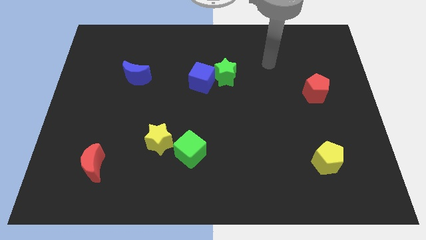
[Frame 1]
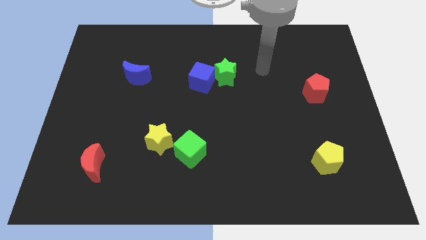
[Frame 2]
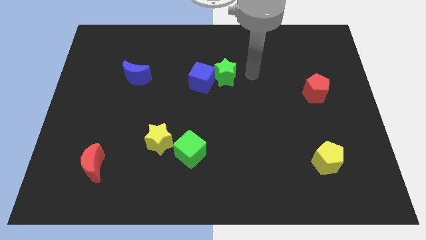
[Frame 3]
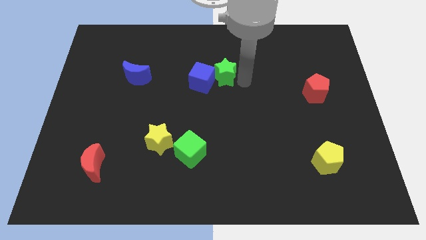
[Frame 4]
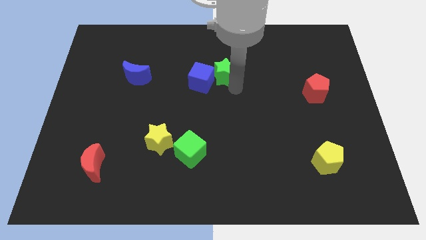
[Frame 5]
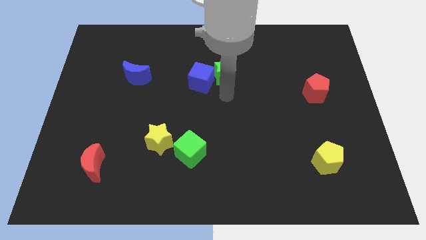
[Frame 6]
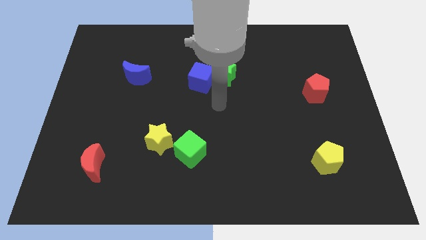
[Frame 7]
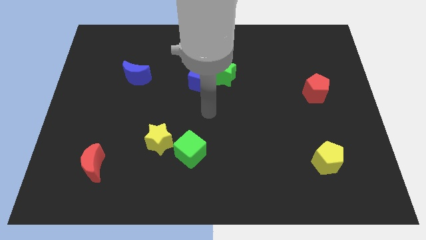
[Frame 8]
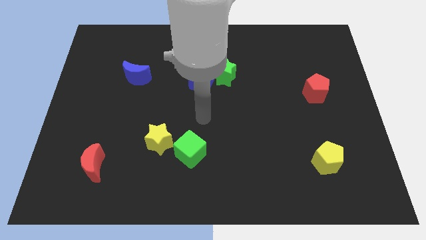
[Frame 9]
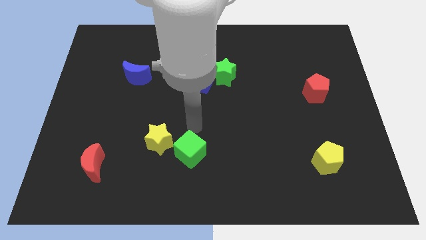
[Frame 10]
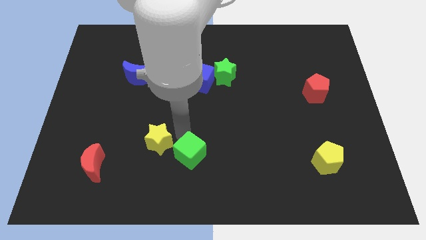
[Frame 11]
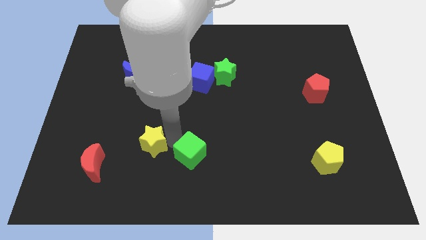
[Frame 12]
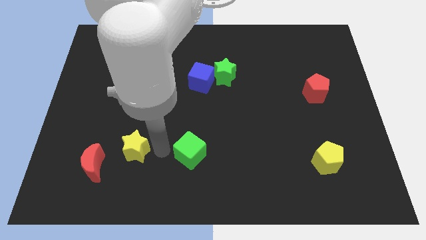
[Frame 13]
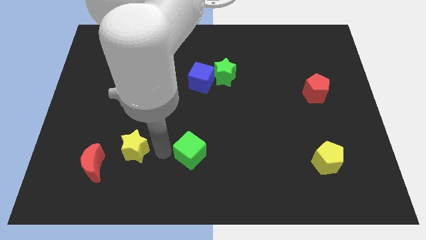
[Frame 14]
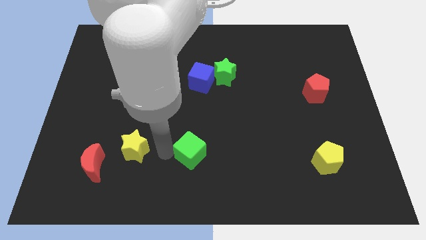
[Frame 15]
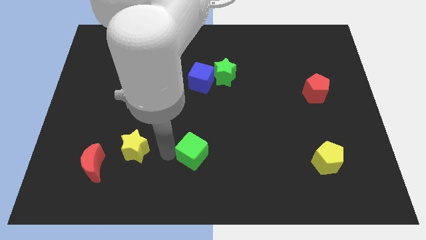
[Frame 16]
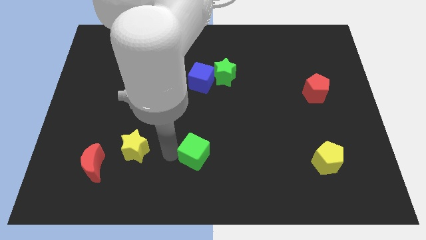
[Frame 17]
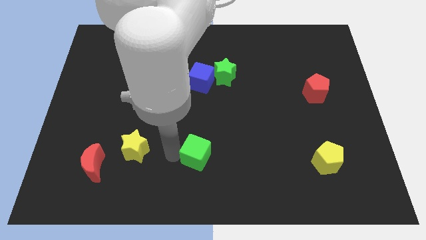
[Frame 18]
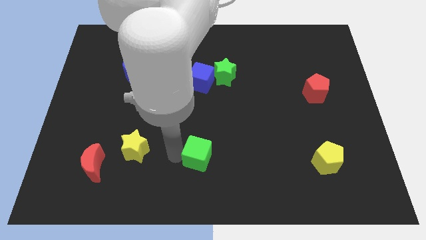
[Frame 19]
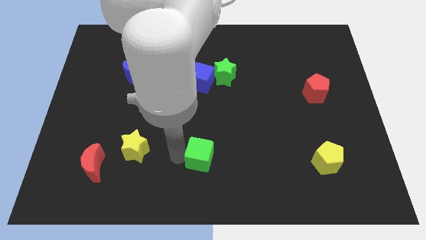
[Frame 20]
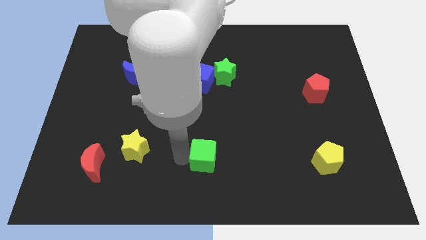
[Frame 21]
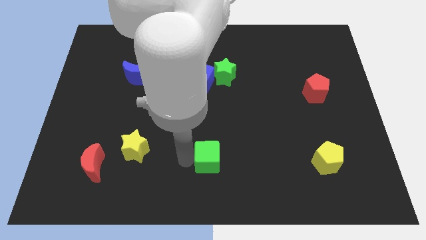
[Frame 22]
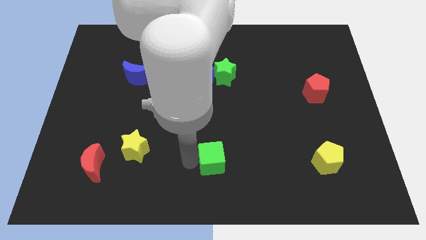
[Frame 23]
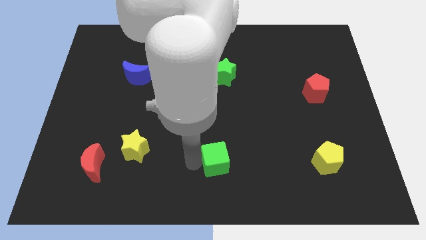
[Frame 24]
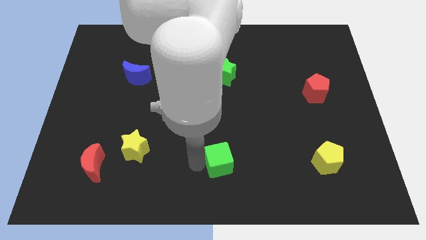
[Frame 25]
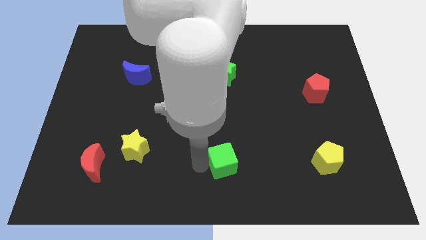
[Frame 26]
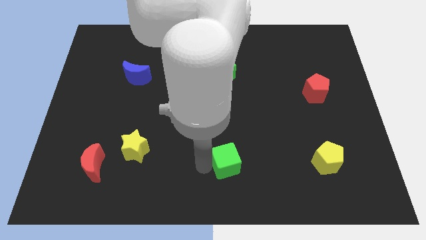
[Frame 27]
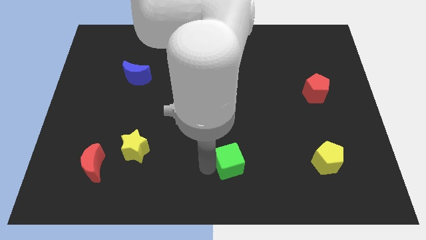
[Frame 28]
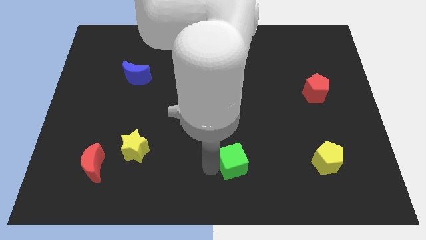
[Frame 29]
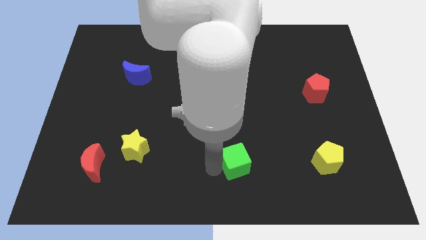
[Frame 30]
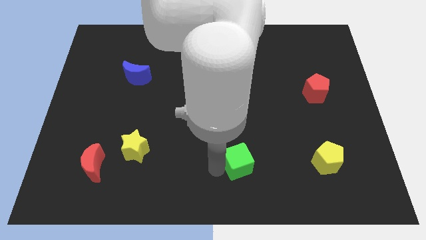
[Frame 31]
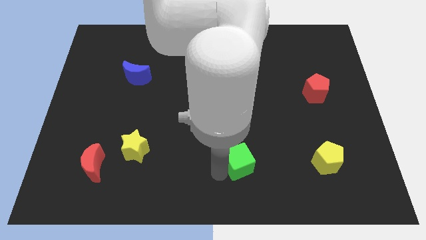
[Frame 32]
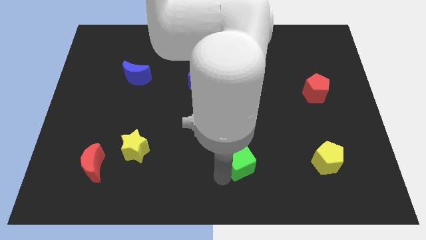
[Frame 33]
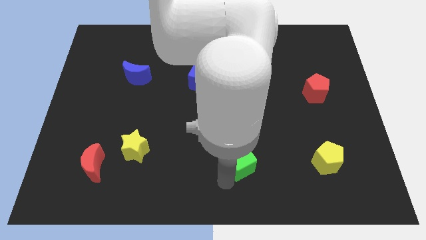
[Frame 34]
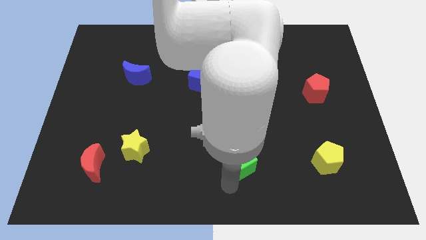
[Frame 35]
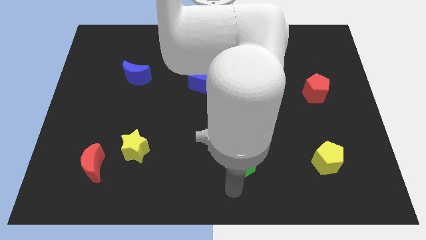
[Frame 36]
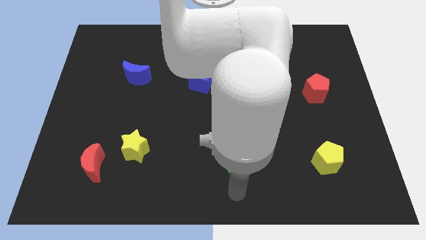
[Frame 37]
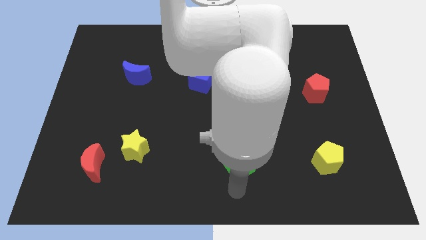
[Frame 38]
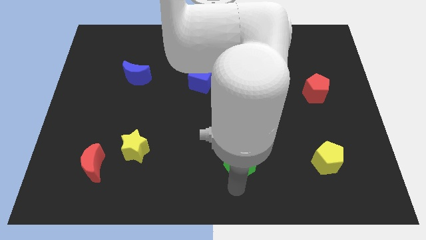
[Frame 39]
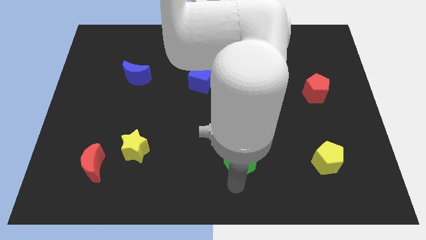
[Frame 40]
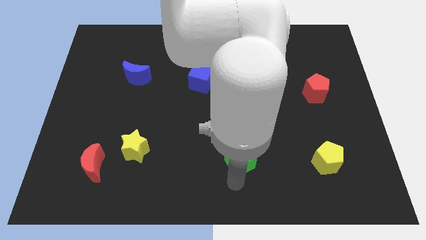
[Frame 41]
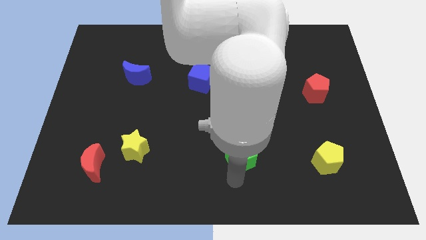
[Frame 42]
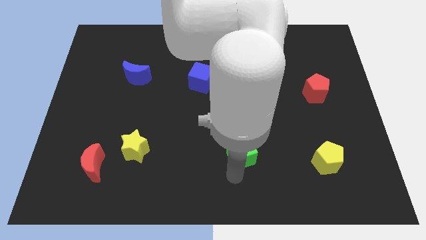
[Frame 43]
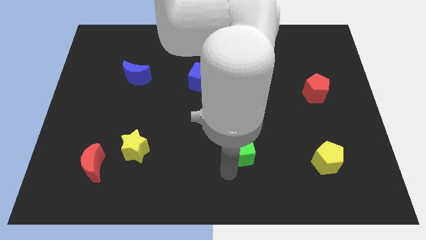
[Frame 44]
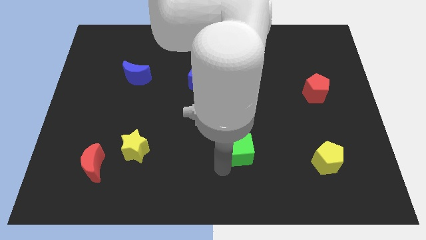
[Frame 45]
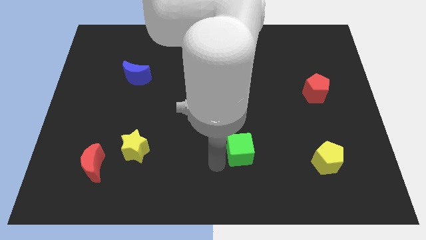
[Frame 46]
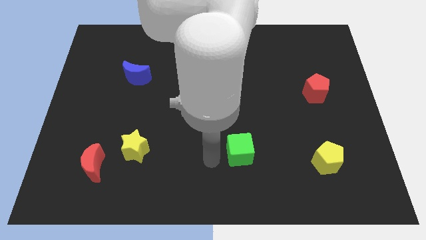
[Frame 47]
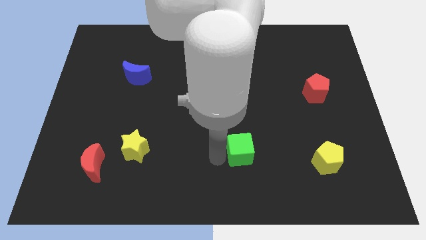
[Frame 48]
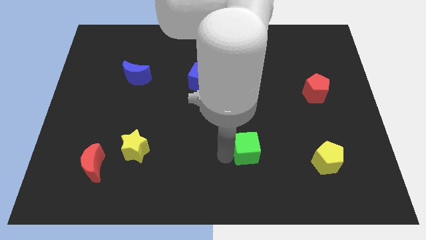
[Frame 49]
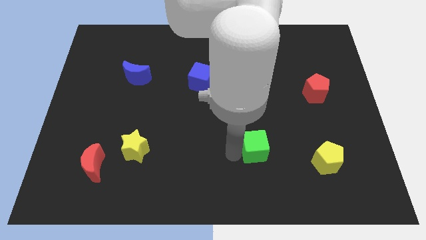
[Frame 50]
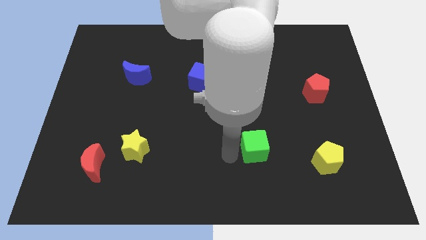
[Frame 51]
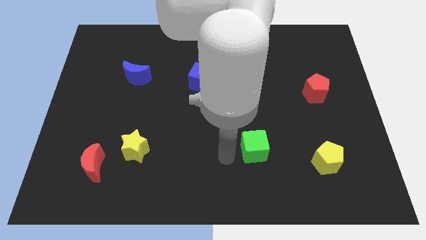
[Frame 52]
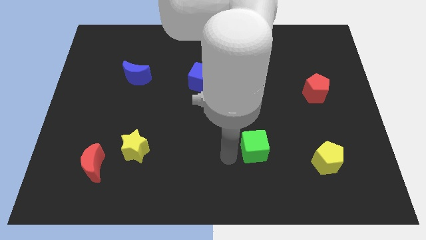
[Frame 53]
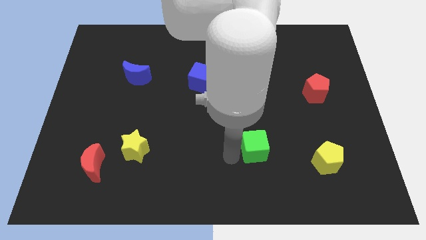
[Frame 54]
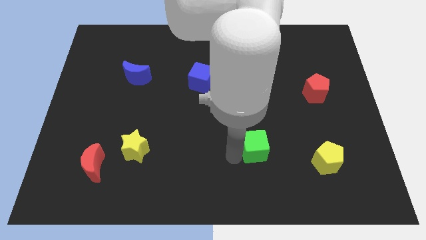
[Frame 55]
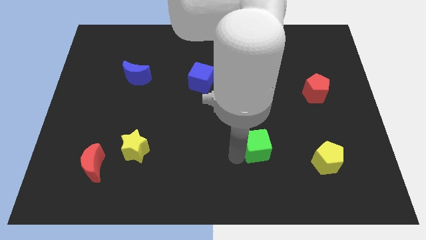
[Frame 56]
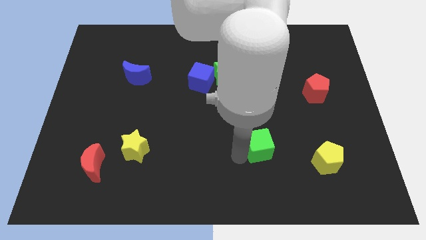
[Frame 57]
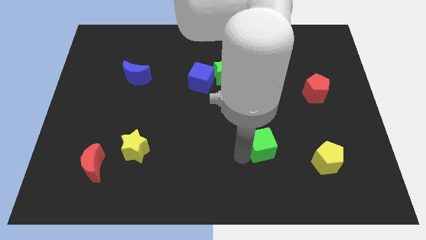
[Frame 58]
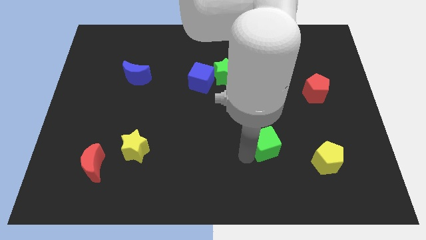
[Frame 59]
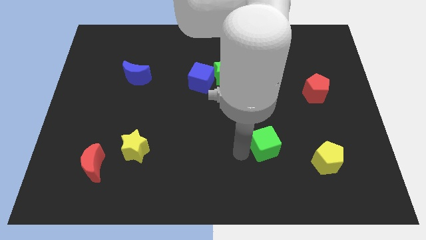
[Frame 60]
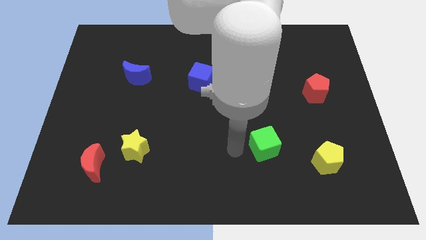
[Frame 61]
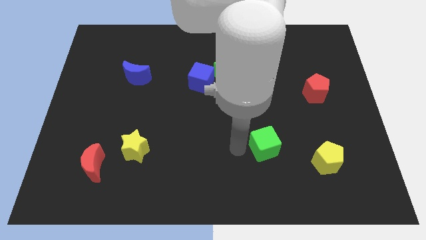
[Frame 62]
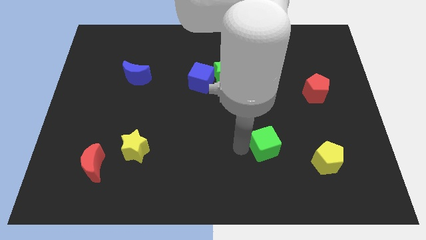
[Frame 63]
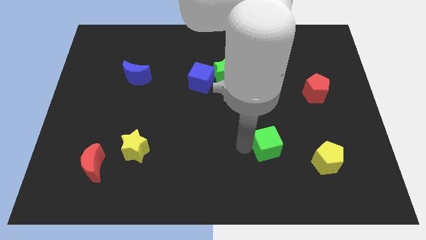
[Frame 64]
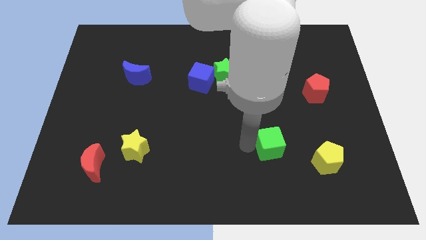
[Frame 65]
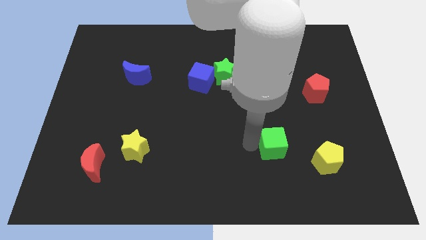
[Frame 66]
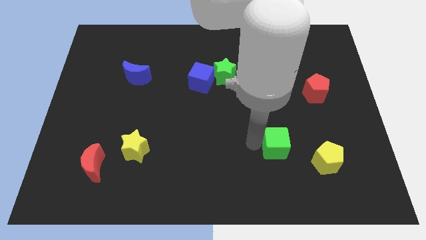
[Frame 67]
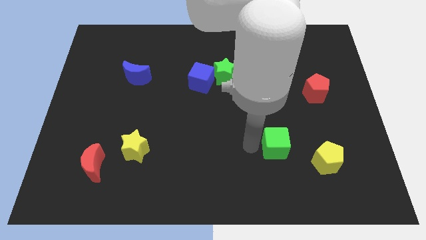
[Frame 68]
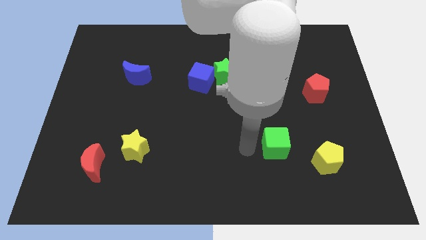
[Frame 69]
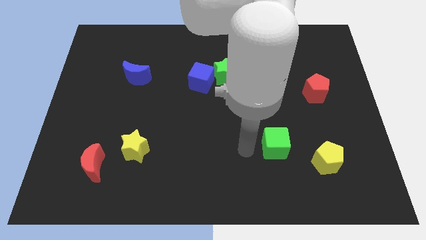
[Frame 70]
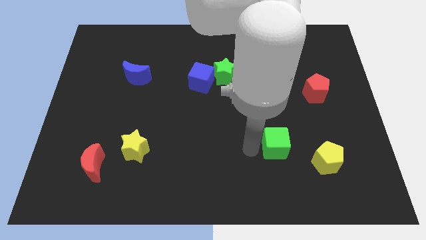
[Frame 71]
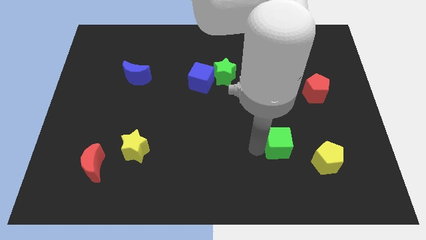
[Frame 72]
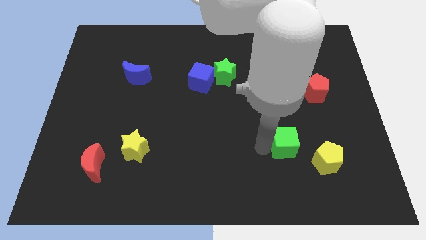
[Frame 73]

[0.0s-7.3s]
push the green cube right

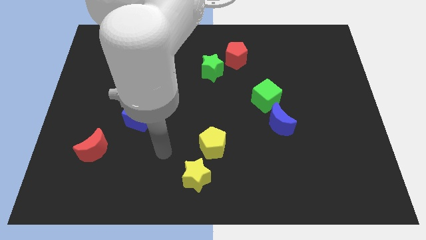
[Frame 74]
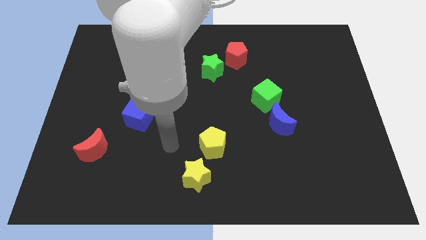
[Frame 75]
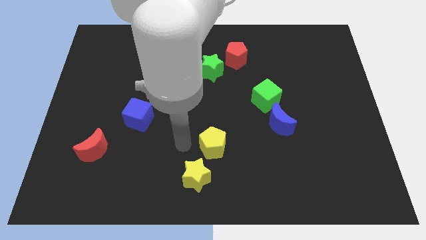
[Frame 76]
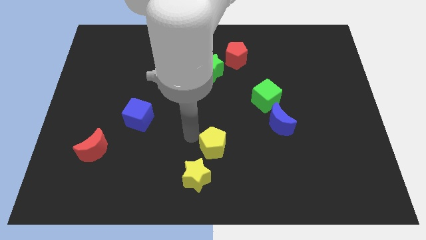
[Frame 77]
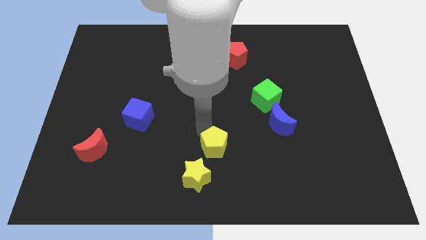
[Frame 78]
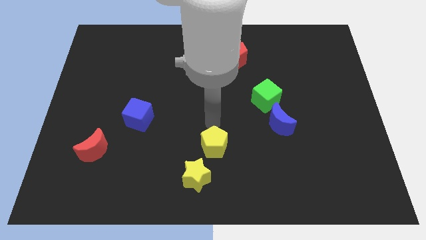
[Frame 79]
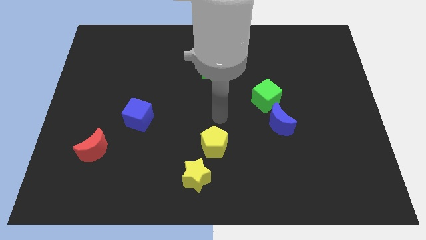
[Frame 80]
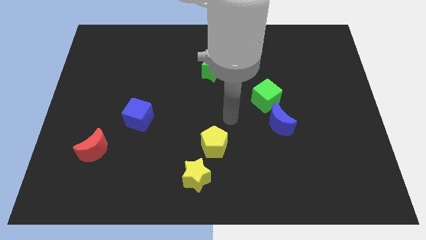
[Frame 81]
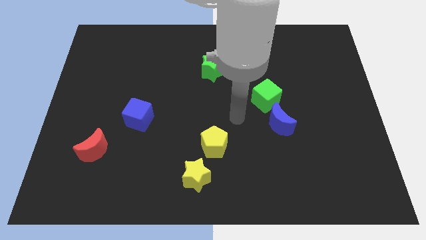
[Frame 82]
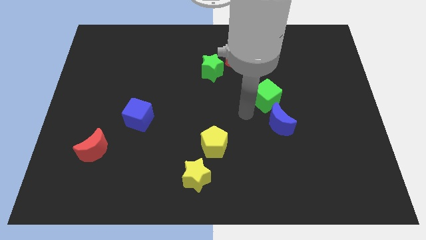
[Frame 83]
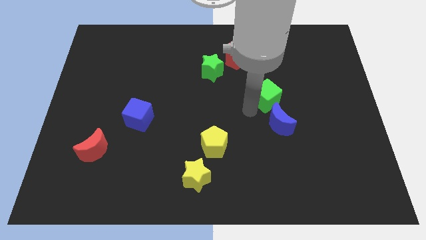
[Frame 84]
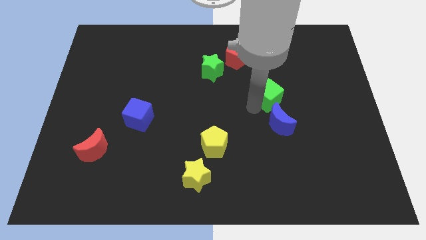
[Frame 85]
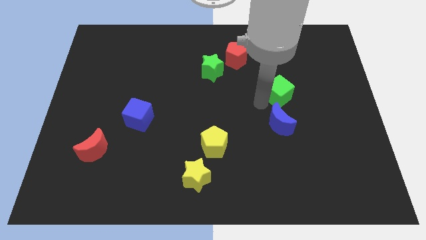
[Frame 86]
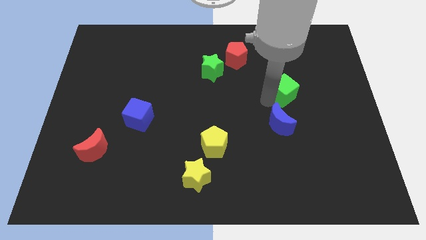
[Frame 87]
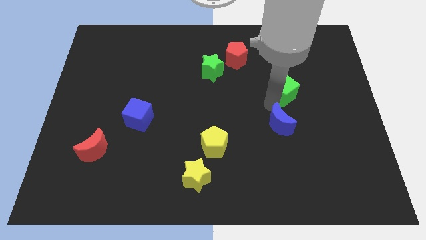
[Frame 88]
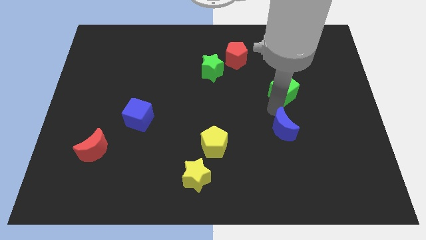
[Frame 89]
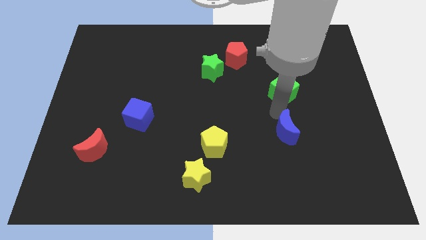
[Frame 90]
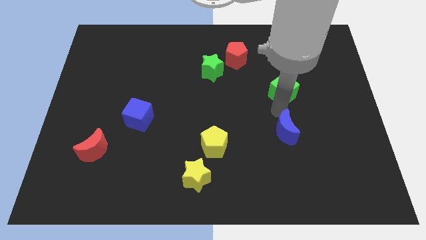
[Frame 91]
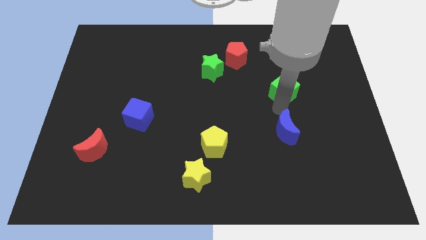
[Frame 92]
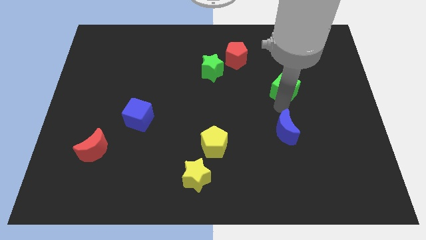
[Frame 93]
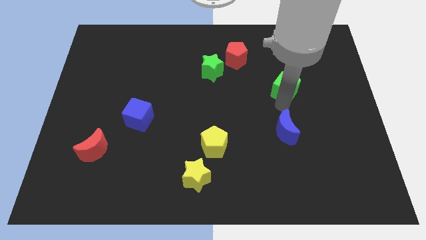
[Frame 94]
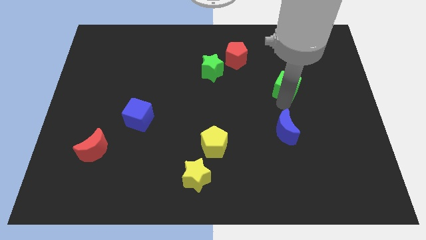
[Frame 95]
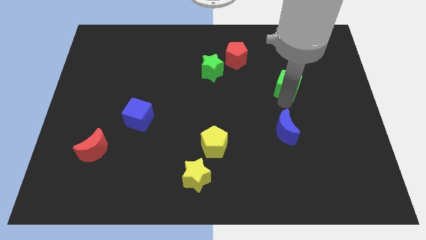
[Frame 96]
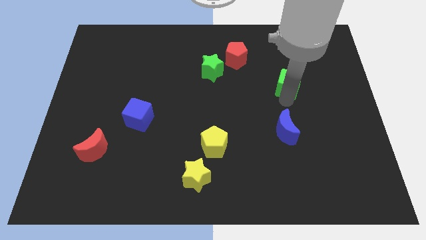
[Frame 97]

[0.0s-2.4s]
push the green cube somewhat up and right
